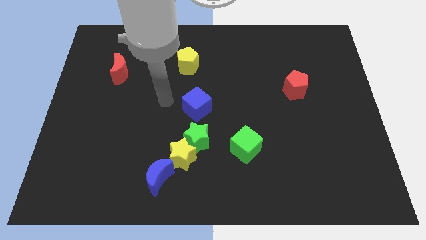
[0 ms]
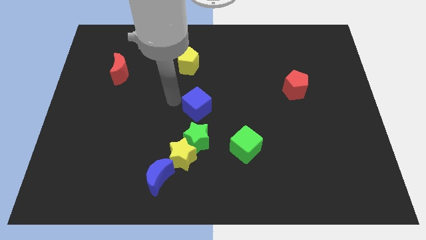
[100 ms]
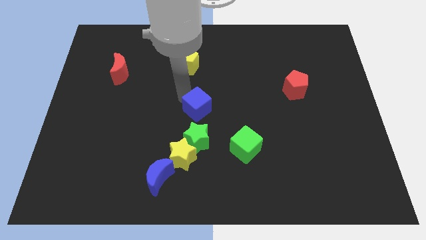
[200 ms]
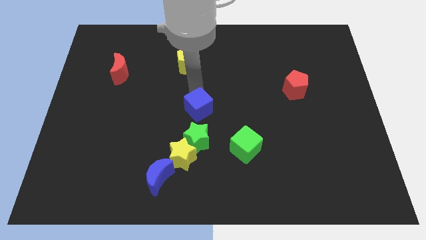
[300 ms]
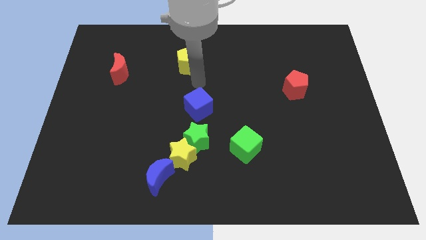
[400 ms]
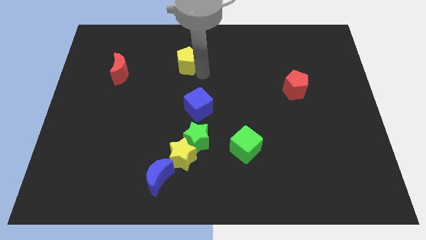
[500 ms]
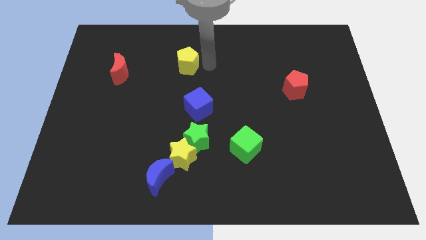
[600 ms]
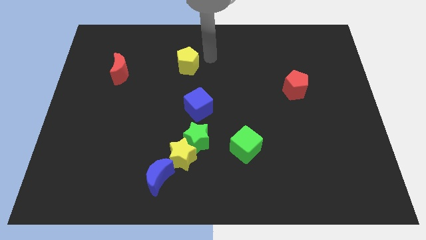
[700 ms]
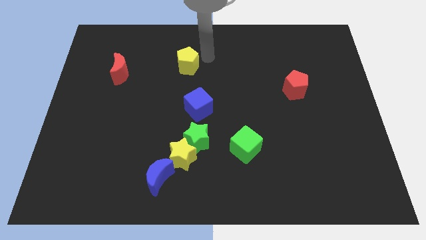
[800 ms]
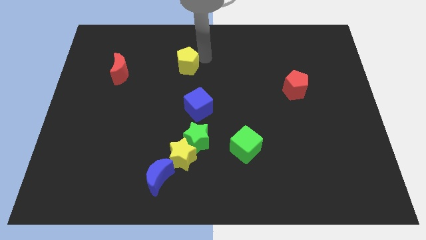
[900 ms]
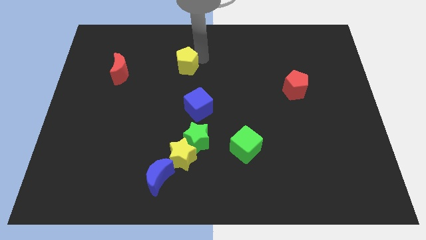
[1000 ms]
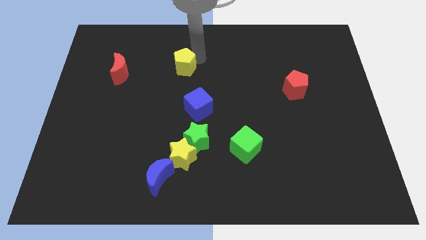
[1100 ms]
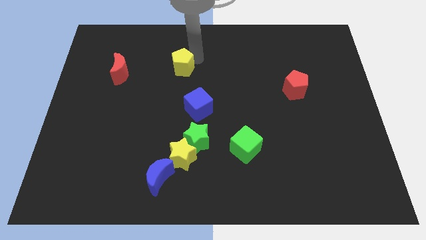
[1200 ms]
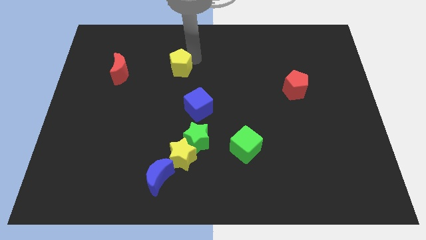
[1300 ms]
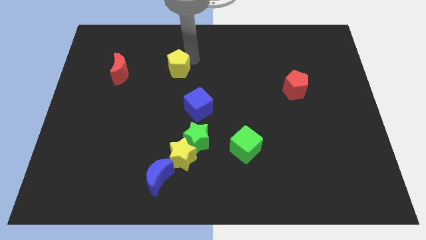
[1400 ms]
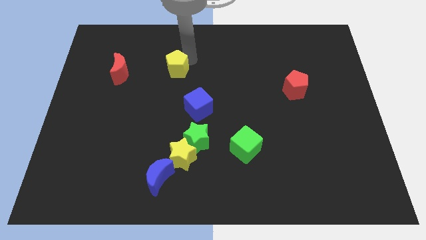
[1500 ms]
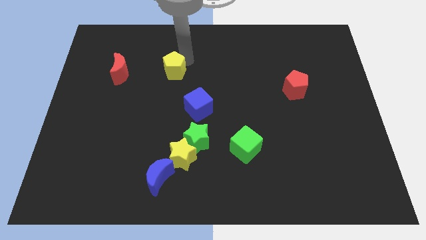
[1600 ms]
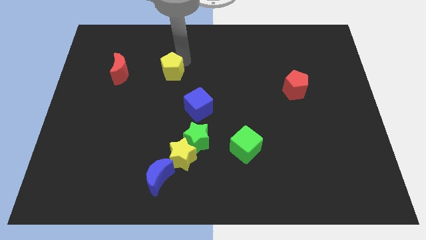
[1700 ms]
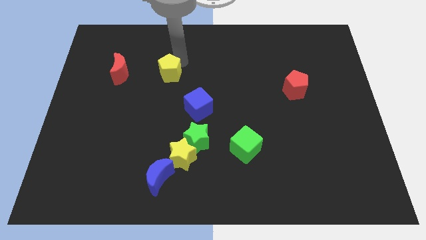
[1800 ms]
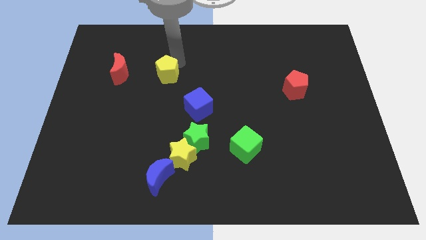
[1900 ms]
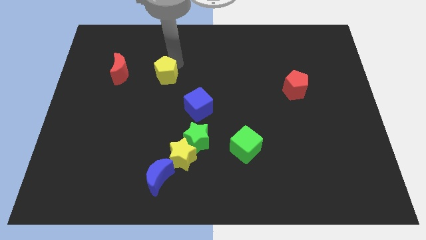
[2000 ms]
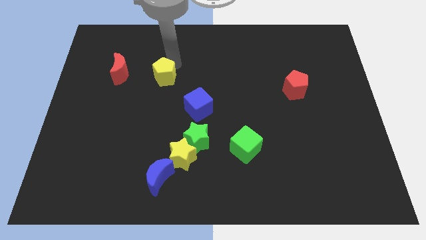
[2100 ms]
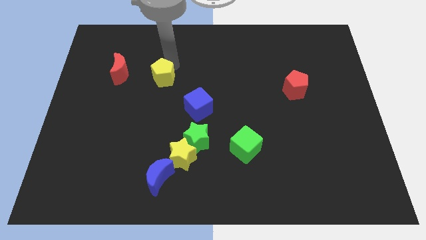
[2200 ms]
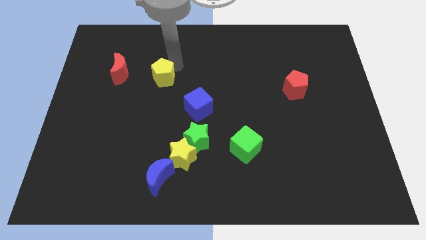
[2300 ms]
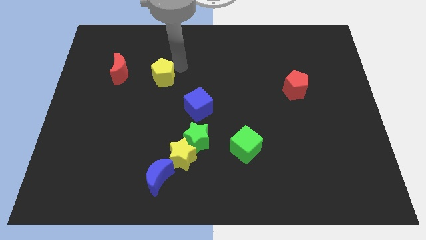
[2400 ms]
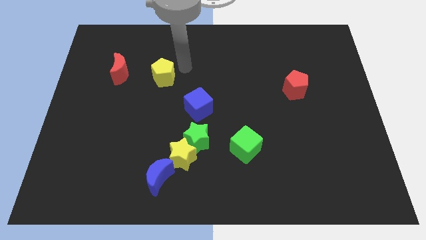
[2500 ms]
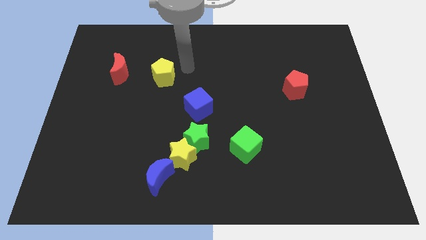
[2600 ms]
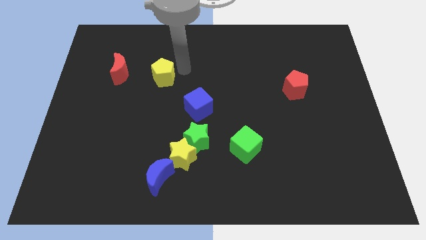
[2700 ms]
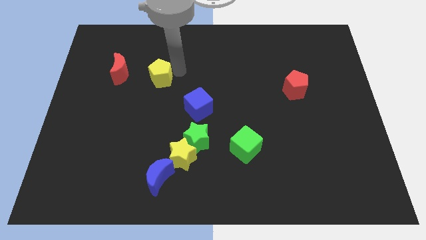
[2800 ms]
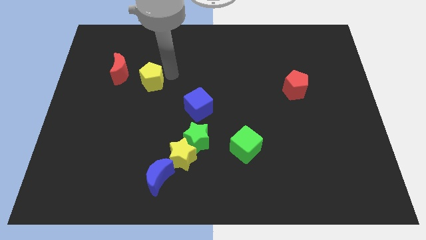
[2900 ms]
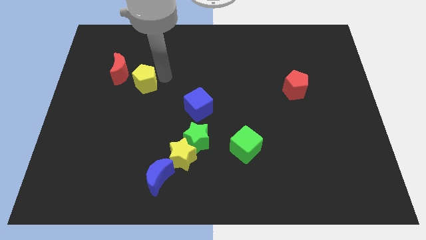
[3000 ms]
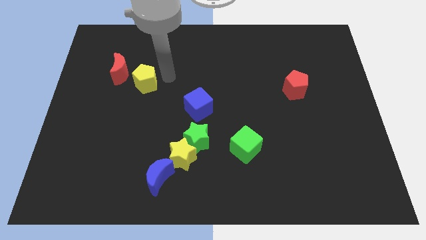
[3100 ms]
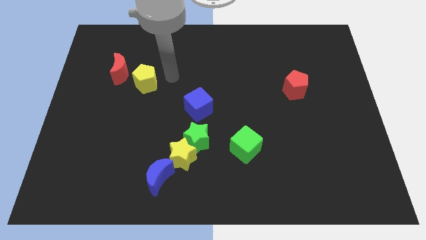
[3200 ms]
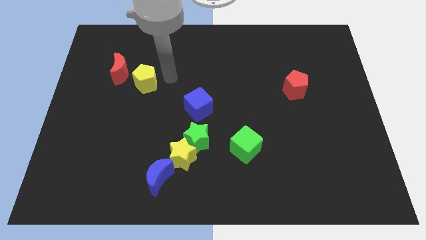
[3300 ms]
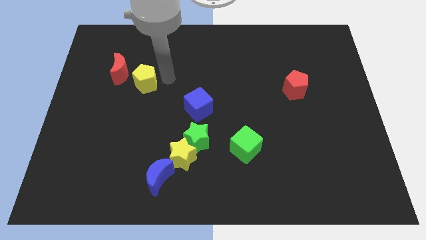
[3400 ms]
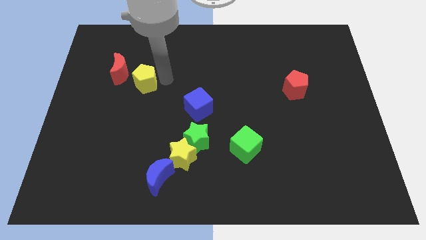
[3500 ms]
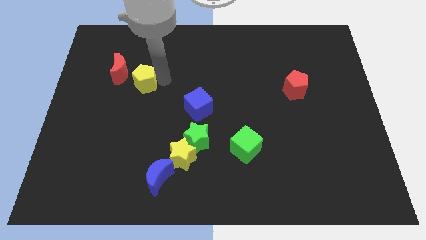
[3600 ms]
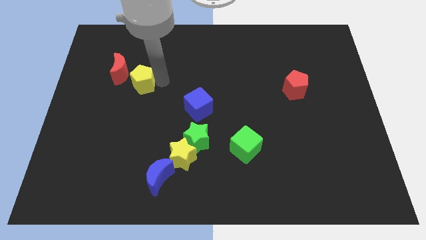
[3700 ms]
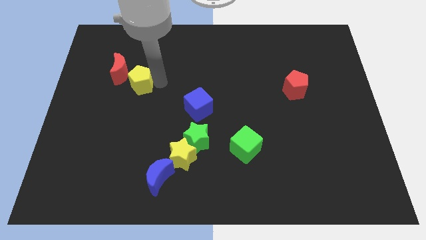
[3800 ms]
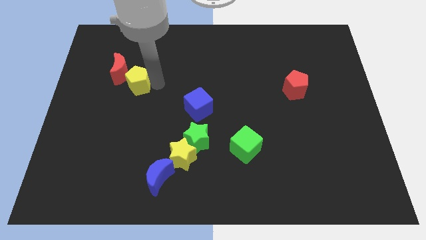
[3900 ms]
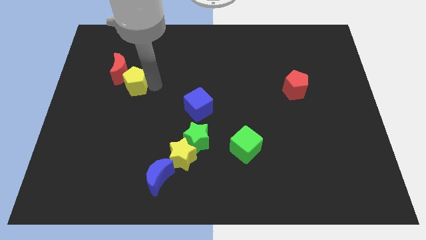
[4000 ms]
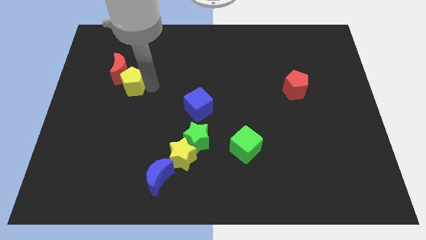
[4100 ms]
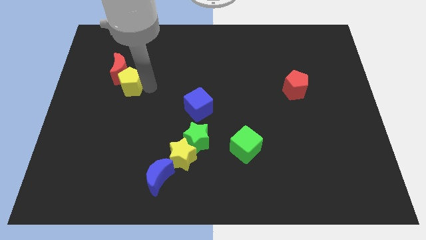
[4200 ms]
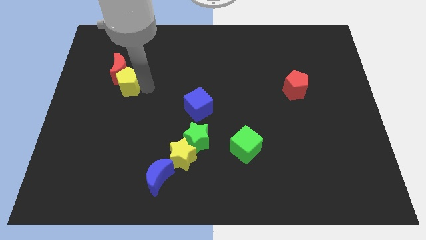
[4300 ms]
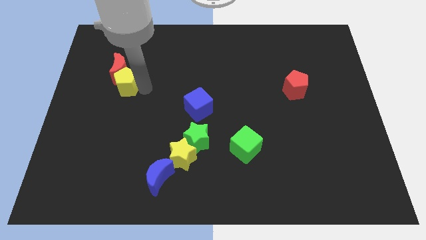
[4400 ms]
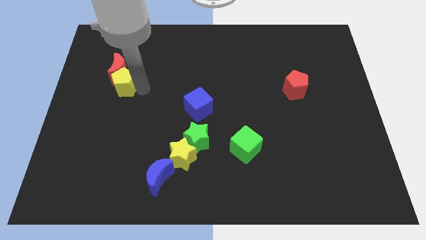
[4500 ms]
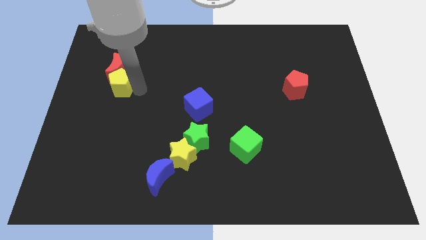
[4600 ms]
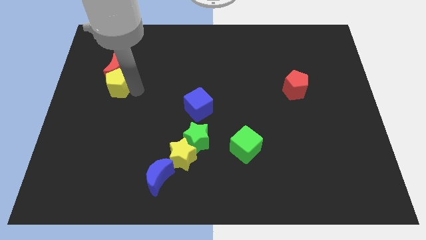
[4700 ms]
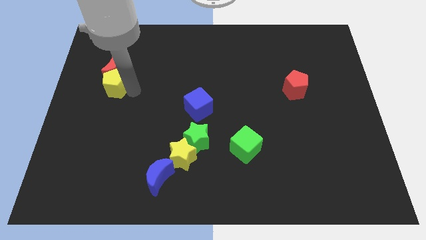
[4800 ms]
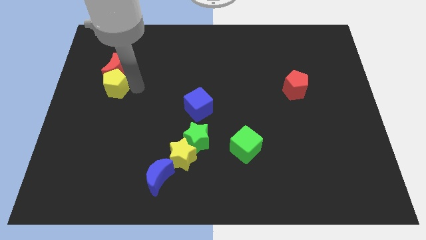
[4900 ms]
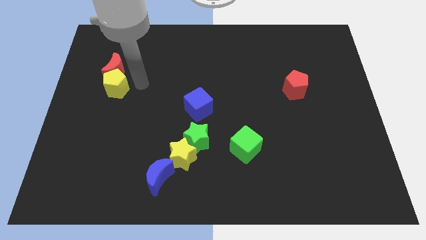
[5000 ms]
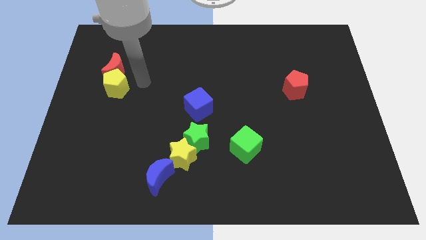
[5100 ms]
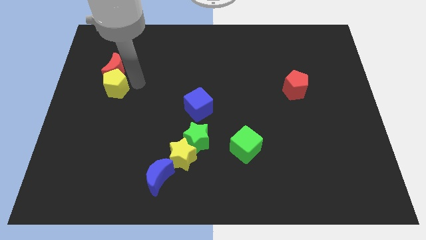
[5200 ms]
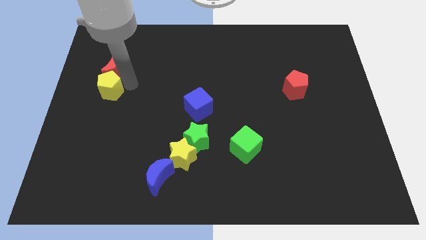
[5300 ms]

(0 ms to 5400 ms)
push the yellow pentagon to the left side of the board

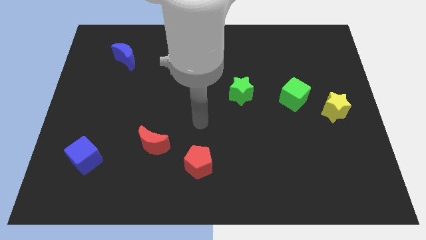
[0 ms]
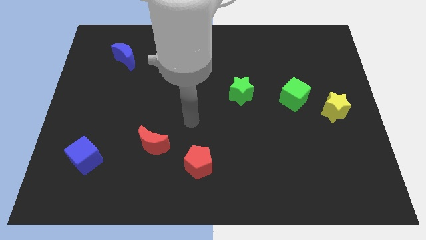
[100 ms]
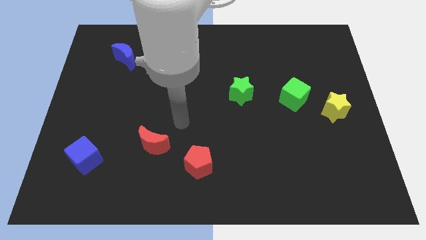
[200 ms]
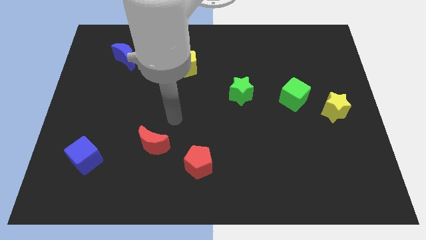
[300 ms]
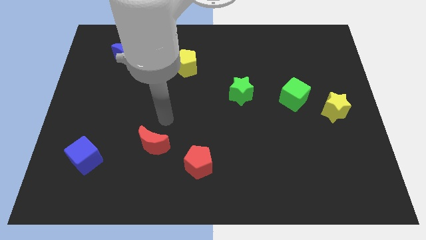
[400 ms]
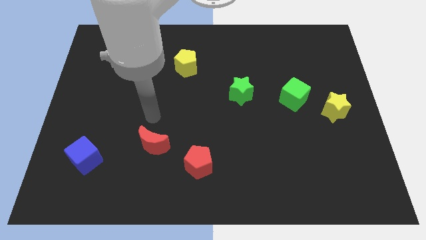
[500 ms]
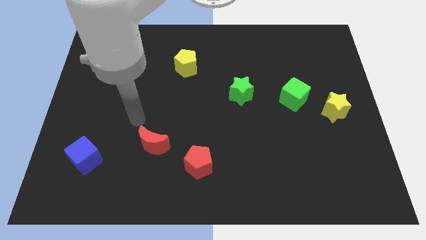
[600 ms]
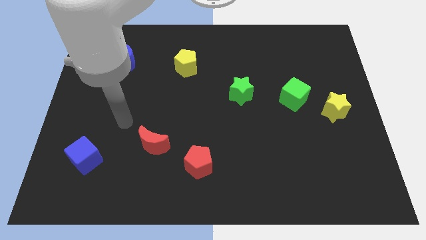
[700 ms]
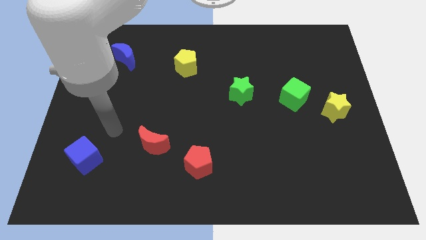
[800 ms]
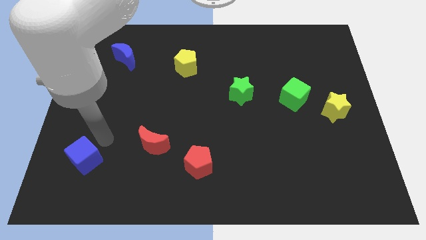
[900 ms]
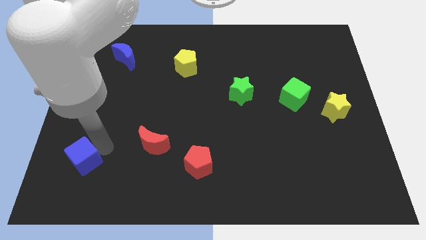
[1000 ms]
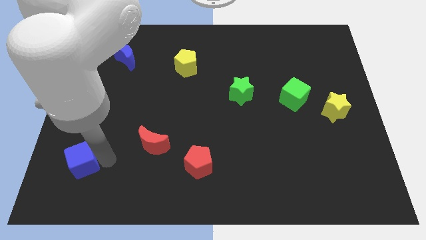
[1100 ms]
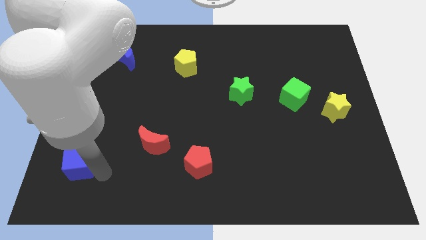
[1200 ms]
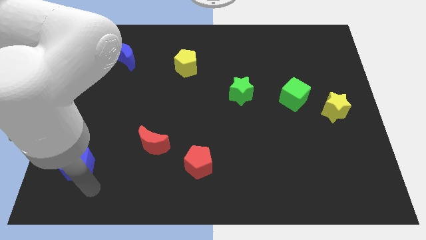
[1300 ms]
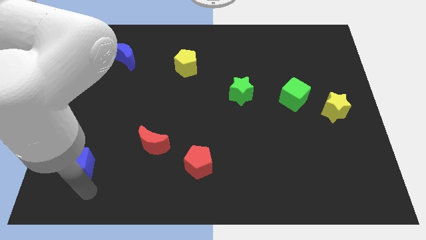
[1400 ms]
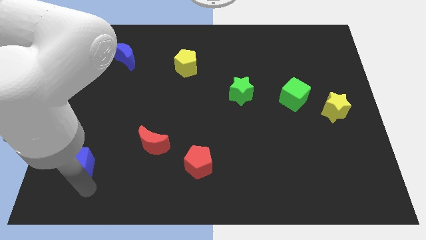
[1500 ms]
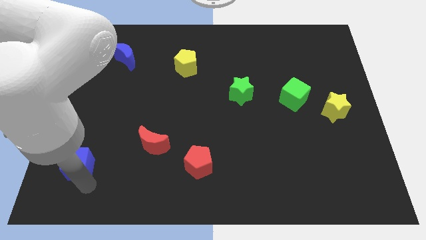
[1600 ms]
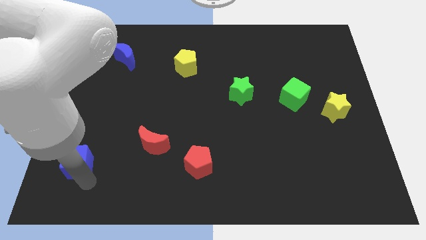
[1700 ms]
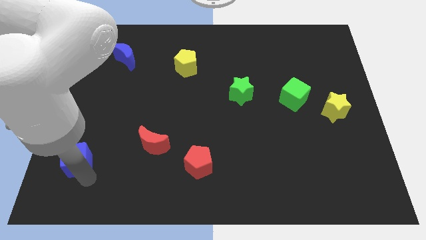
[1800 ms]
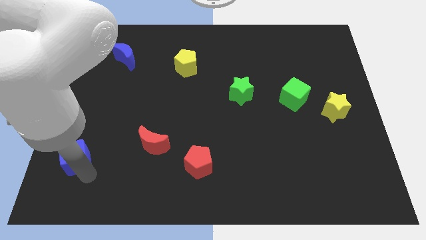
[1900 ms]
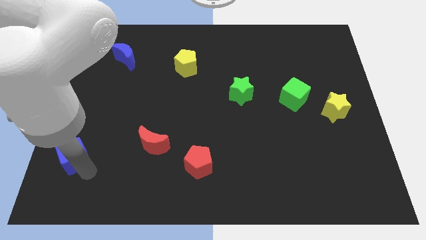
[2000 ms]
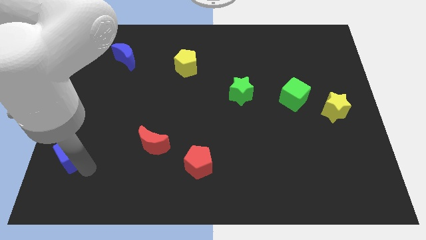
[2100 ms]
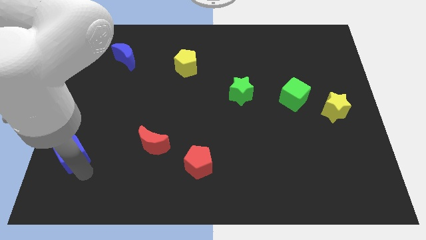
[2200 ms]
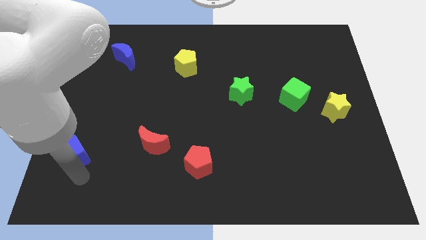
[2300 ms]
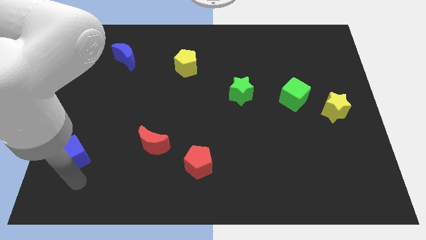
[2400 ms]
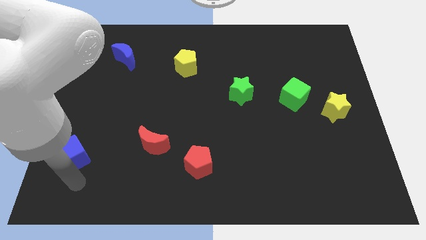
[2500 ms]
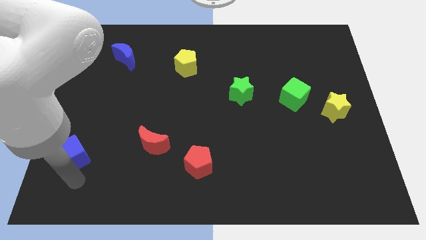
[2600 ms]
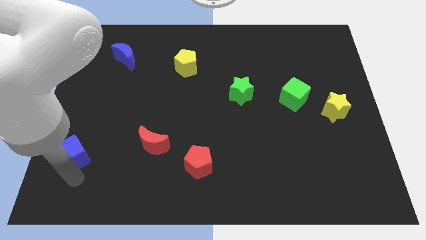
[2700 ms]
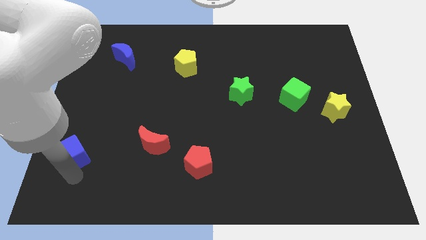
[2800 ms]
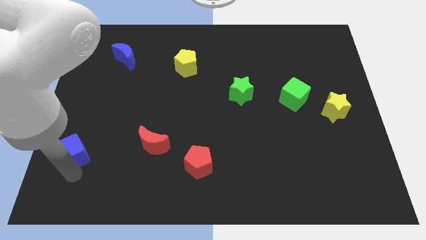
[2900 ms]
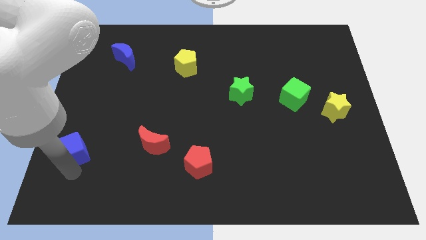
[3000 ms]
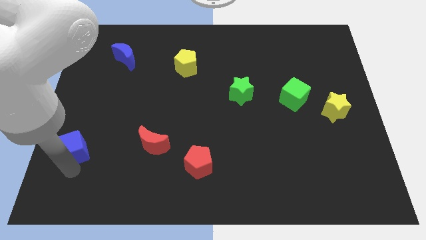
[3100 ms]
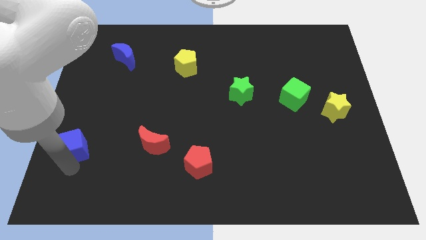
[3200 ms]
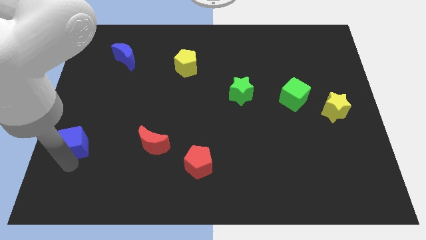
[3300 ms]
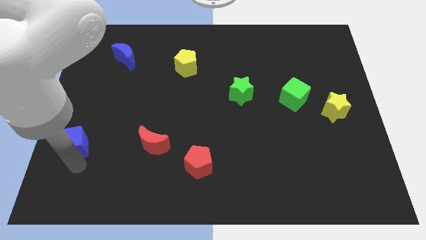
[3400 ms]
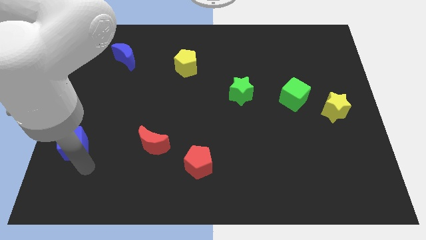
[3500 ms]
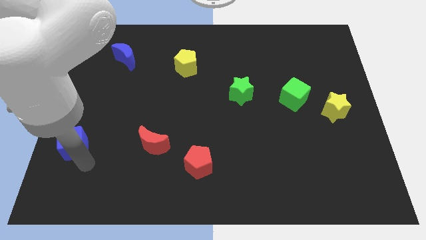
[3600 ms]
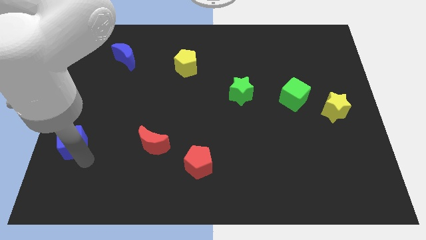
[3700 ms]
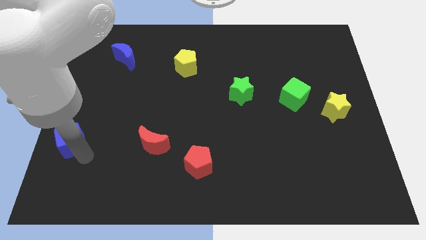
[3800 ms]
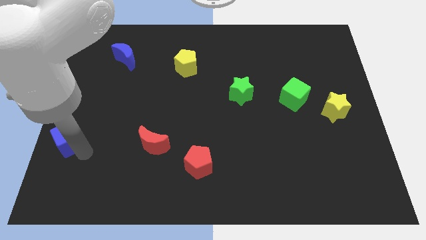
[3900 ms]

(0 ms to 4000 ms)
slide the blue cube to the left side
